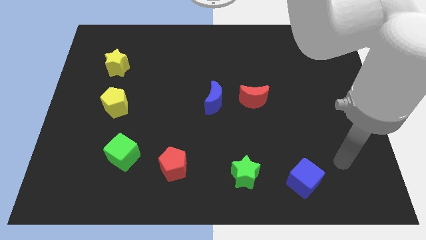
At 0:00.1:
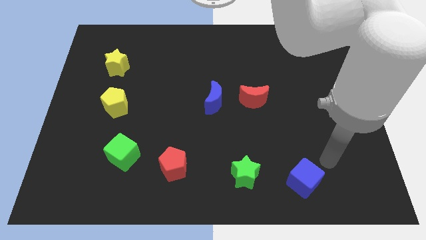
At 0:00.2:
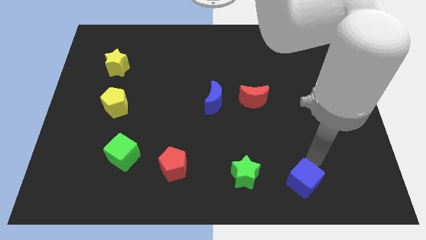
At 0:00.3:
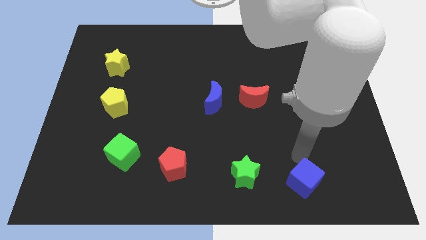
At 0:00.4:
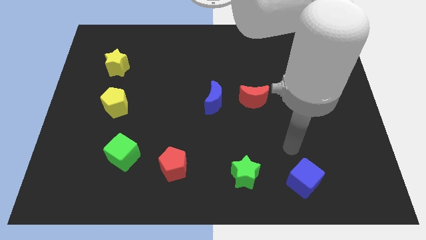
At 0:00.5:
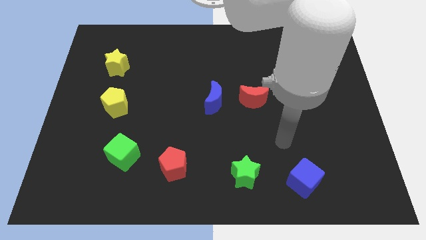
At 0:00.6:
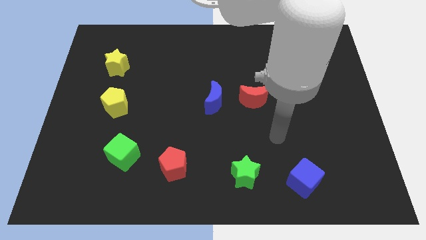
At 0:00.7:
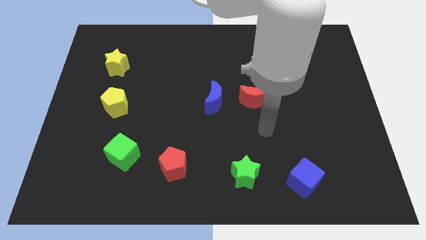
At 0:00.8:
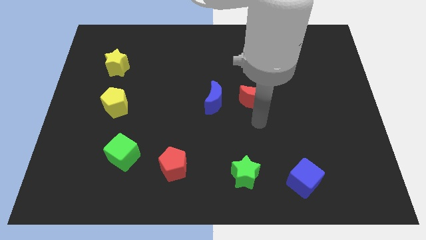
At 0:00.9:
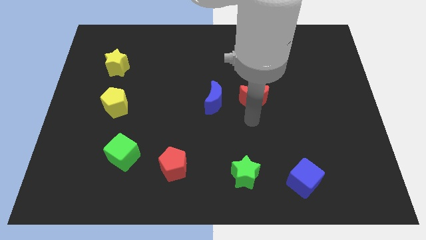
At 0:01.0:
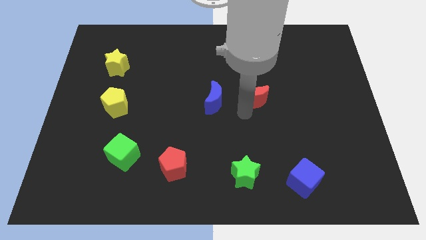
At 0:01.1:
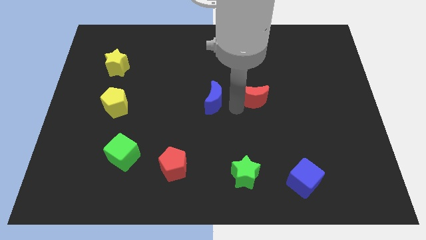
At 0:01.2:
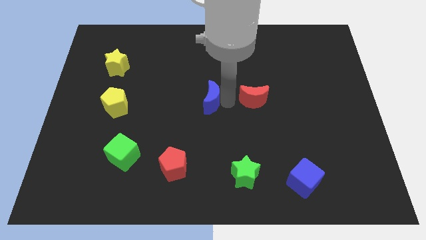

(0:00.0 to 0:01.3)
move the red moon away from the blue moon

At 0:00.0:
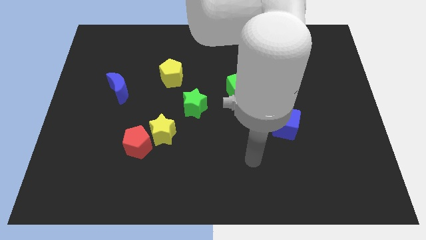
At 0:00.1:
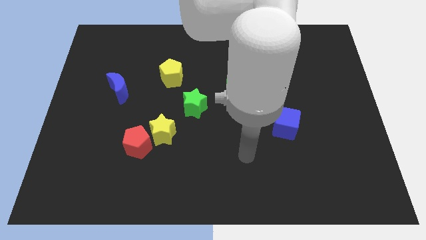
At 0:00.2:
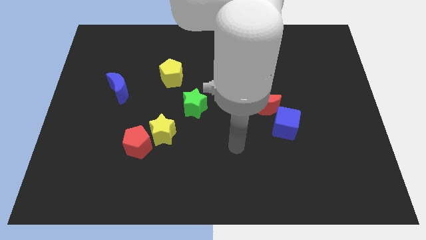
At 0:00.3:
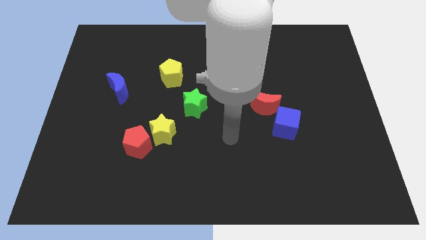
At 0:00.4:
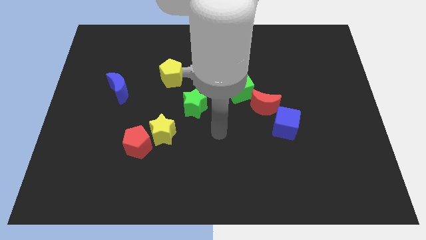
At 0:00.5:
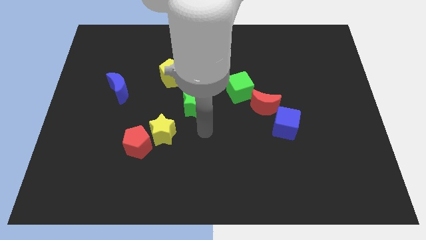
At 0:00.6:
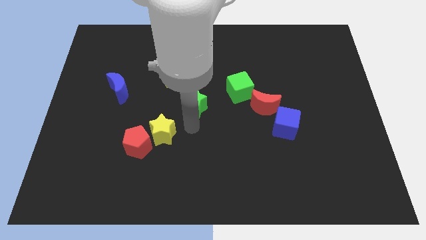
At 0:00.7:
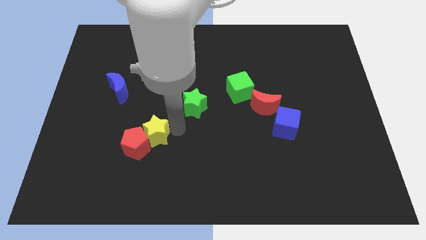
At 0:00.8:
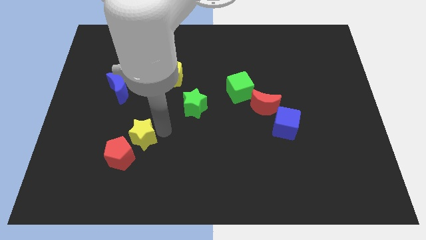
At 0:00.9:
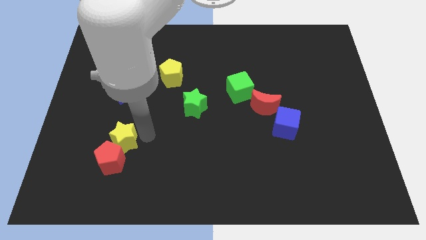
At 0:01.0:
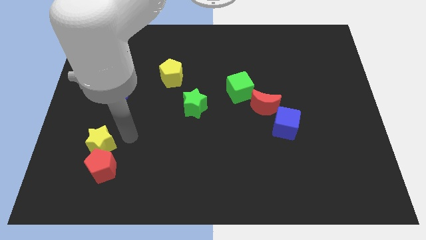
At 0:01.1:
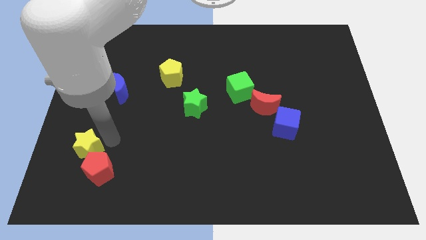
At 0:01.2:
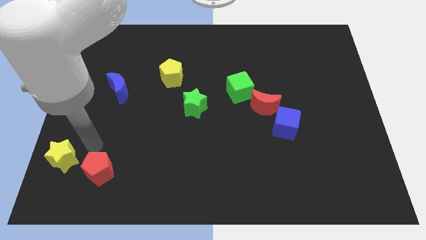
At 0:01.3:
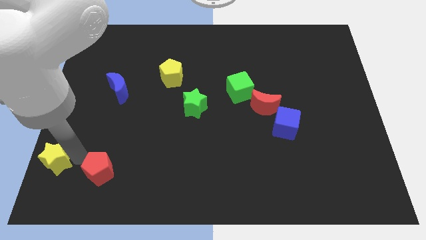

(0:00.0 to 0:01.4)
separate the red pentagon from the yellow star

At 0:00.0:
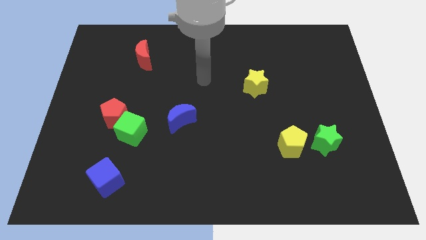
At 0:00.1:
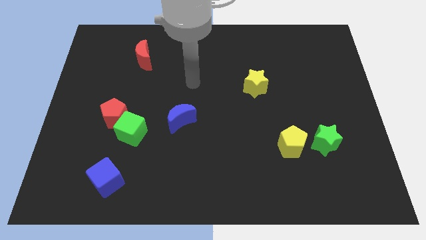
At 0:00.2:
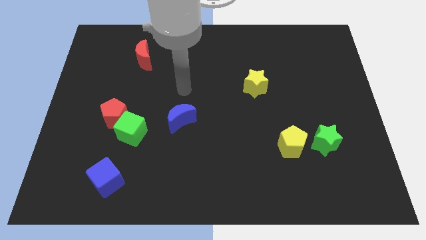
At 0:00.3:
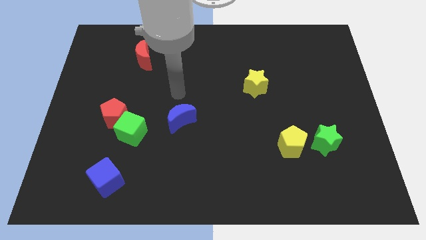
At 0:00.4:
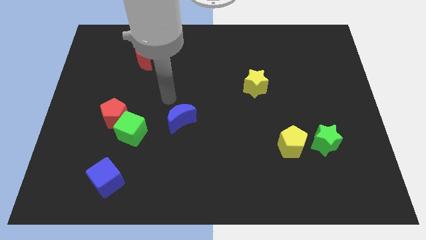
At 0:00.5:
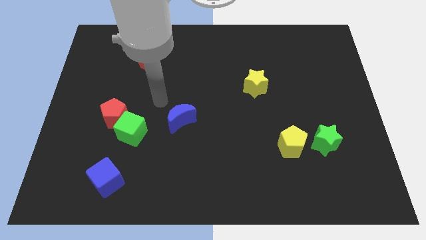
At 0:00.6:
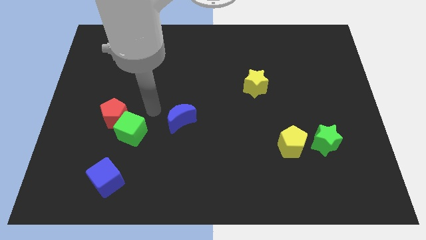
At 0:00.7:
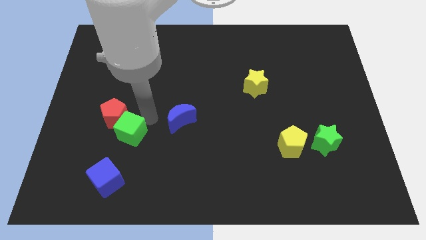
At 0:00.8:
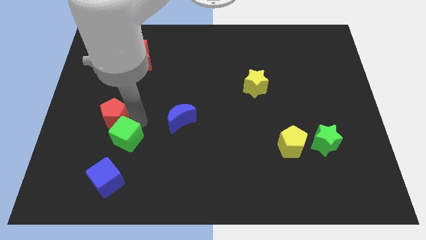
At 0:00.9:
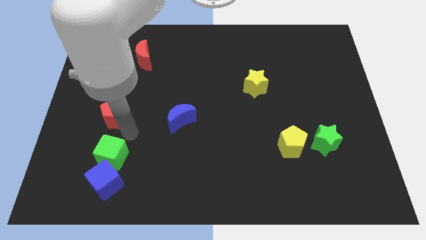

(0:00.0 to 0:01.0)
separate the red pentagon from the green cube

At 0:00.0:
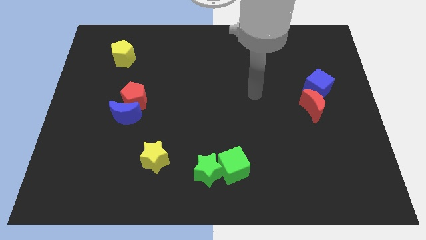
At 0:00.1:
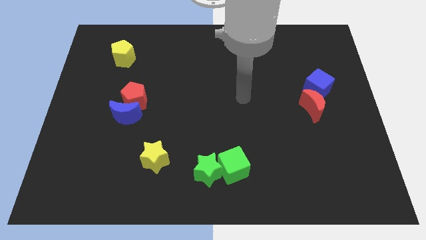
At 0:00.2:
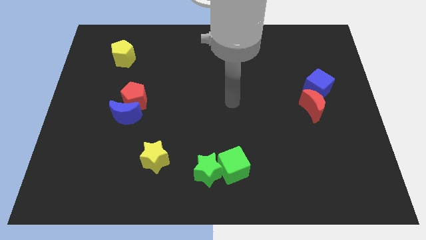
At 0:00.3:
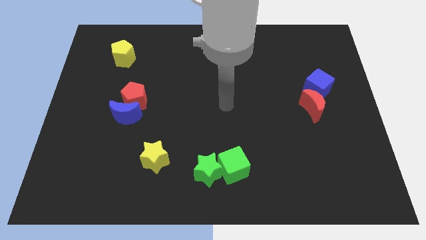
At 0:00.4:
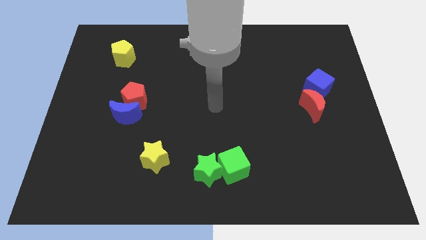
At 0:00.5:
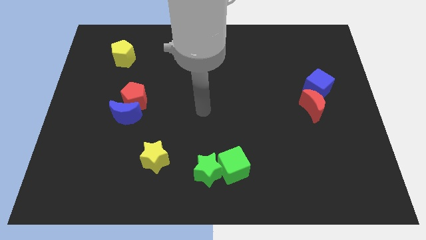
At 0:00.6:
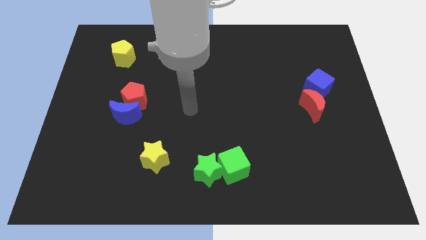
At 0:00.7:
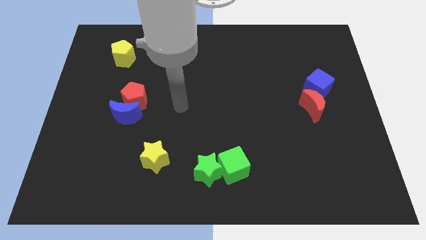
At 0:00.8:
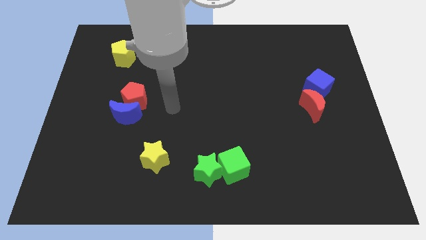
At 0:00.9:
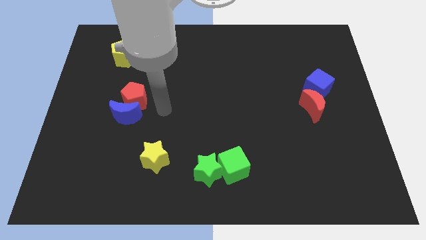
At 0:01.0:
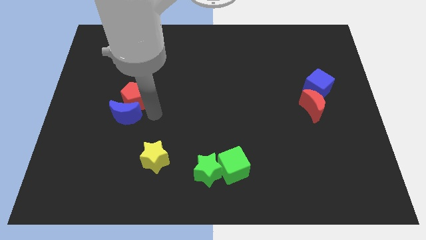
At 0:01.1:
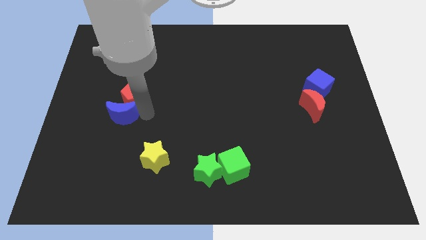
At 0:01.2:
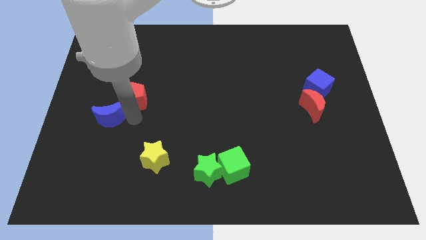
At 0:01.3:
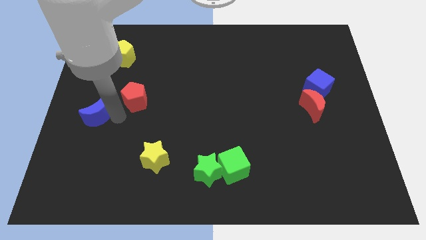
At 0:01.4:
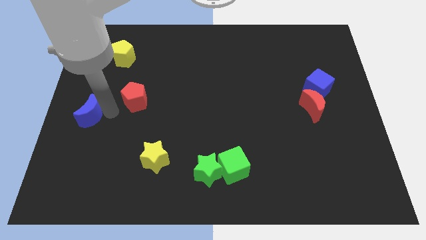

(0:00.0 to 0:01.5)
move the red pentagon away from the blue moon

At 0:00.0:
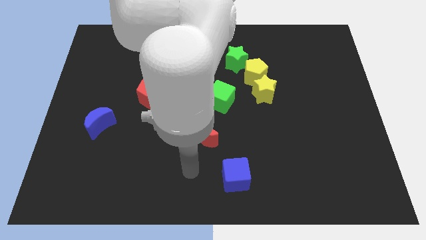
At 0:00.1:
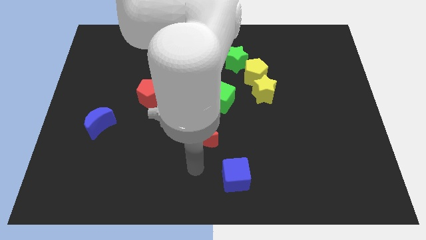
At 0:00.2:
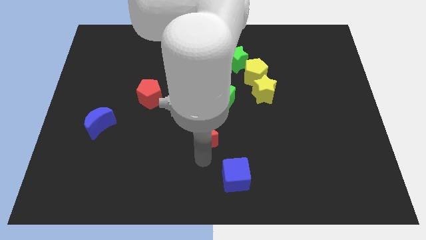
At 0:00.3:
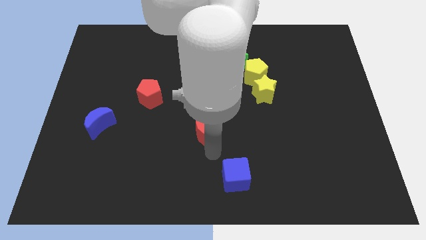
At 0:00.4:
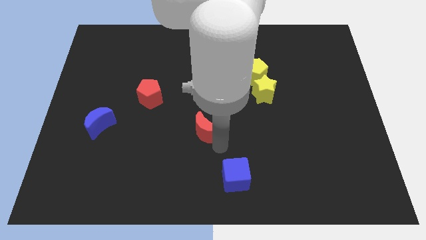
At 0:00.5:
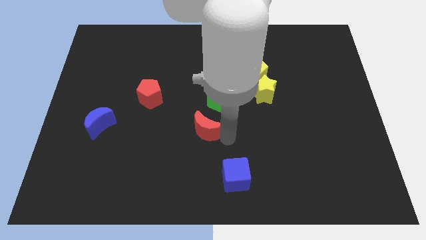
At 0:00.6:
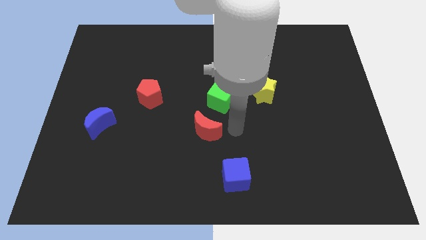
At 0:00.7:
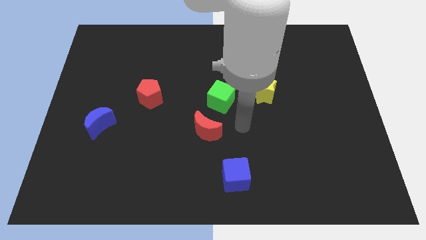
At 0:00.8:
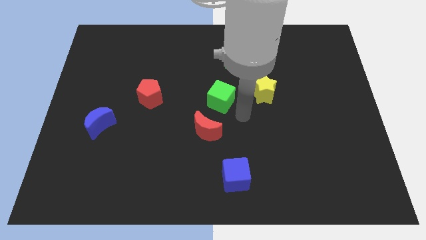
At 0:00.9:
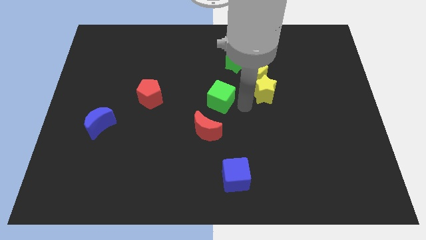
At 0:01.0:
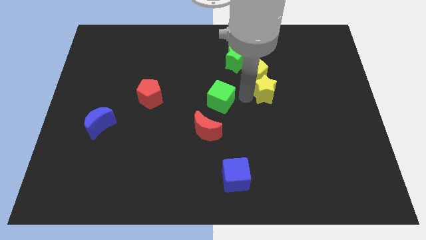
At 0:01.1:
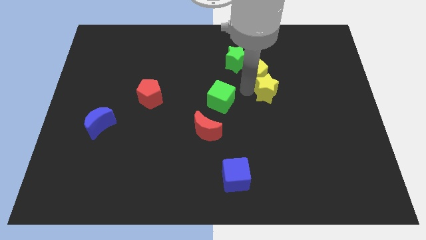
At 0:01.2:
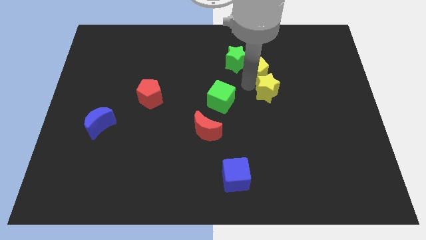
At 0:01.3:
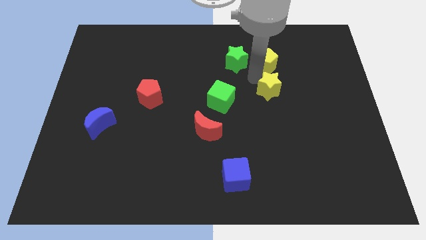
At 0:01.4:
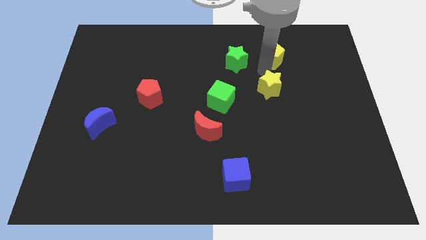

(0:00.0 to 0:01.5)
pull the yellow star apart from the yellow pentagon

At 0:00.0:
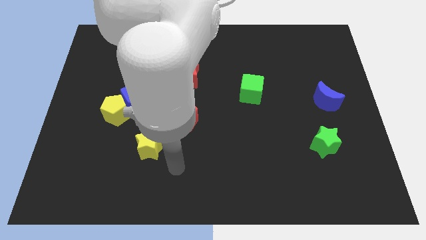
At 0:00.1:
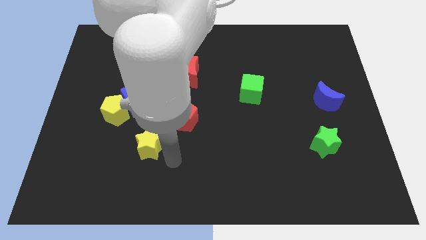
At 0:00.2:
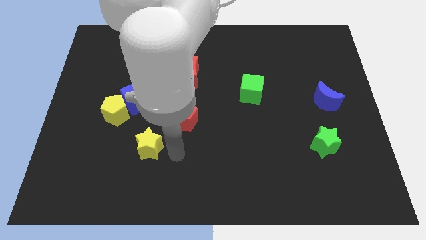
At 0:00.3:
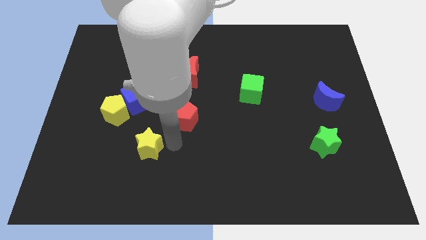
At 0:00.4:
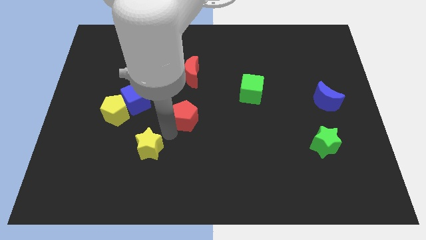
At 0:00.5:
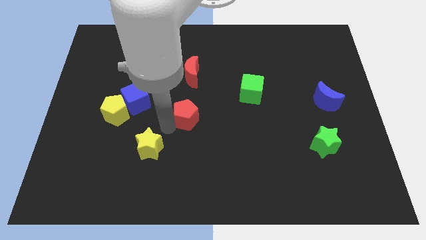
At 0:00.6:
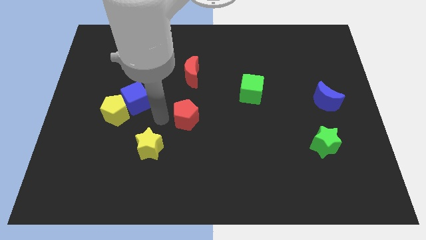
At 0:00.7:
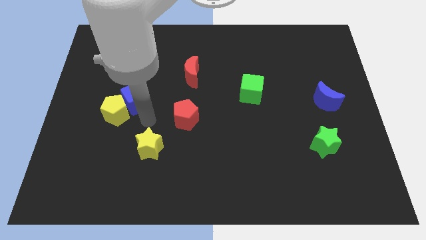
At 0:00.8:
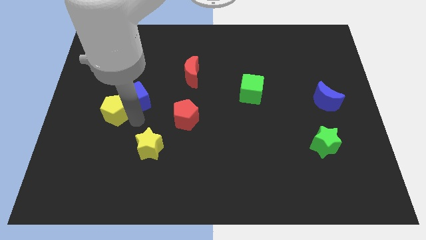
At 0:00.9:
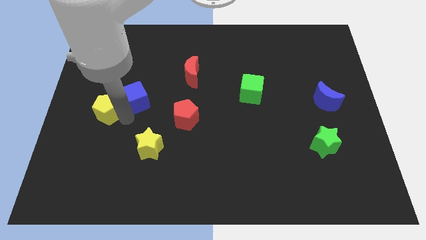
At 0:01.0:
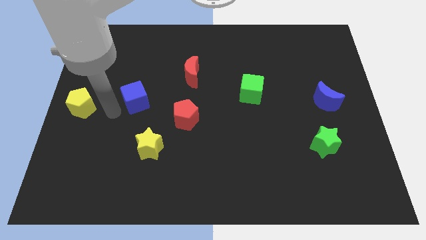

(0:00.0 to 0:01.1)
separate the blue cube from the yellow pentagon

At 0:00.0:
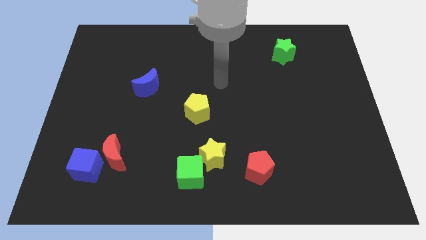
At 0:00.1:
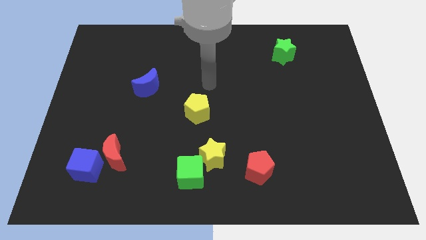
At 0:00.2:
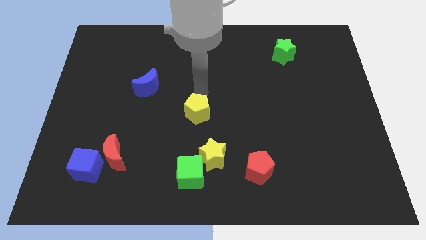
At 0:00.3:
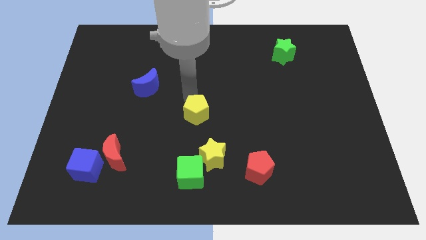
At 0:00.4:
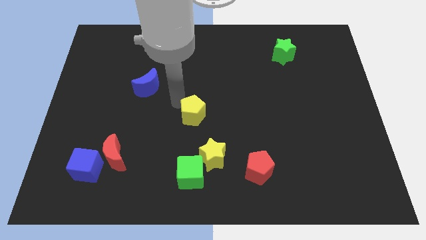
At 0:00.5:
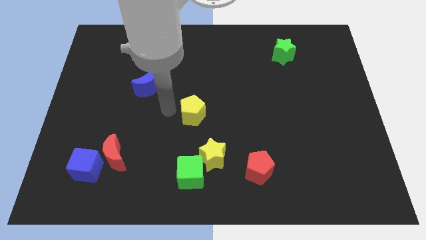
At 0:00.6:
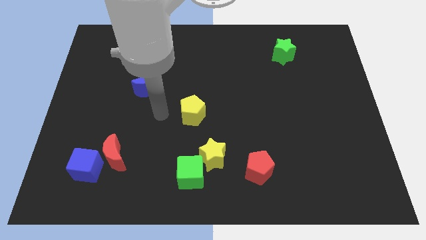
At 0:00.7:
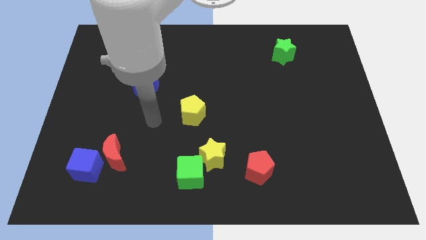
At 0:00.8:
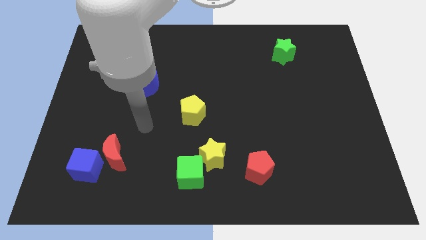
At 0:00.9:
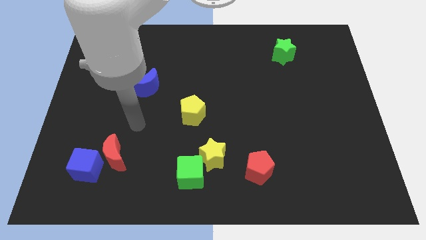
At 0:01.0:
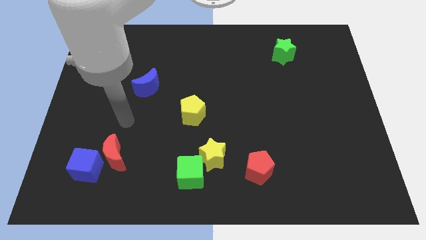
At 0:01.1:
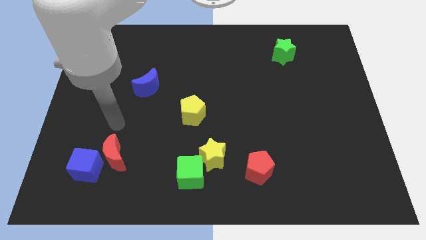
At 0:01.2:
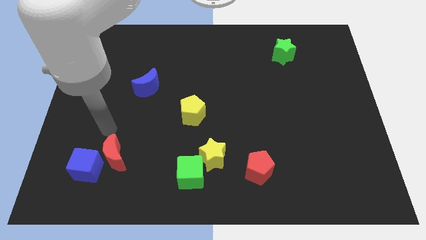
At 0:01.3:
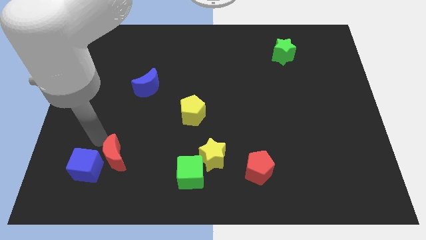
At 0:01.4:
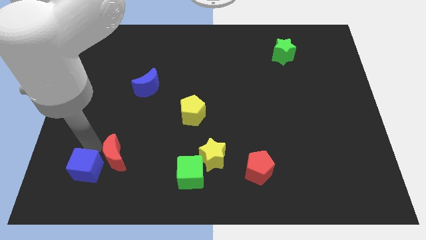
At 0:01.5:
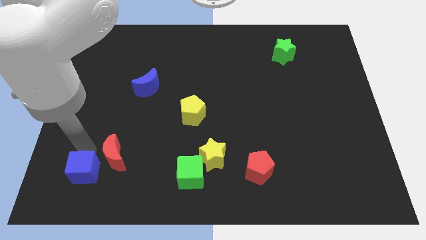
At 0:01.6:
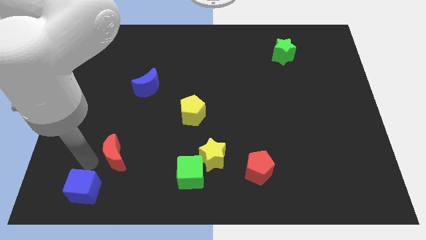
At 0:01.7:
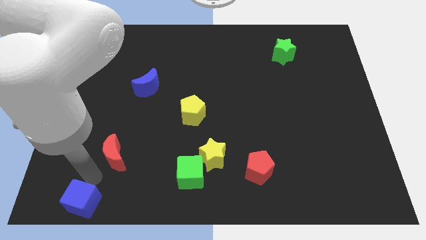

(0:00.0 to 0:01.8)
pull the red moon apart from the blue cube
